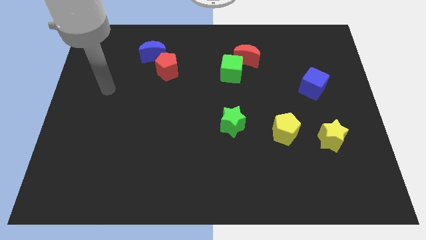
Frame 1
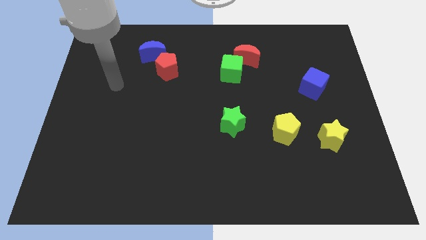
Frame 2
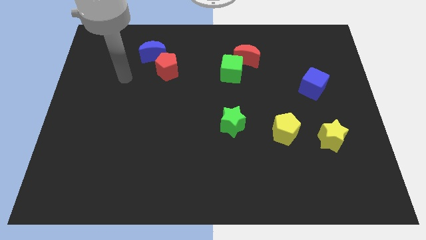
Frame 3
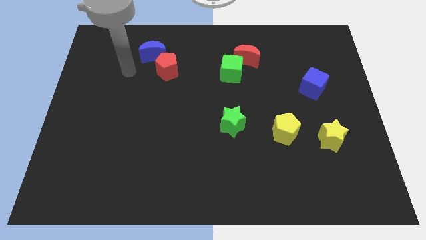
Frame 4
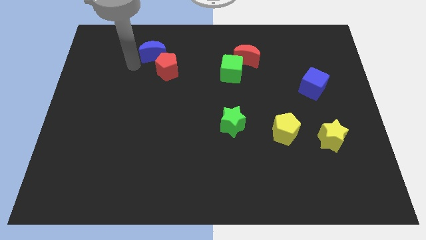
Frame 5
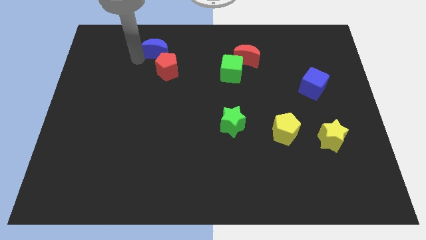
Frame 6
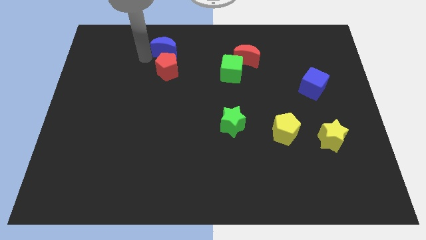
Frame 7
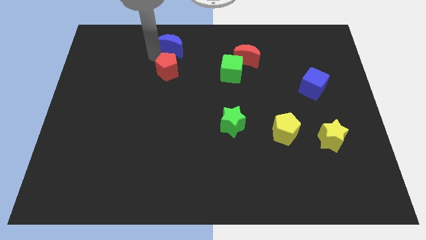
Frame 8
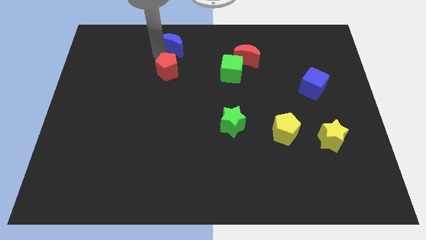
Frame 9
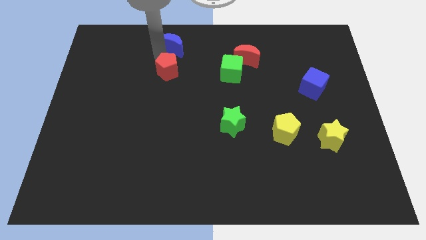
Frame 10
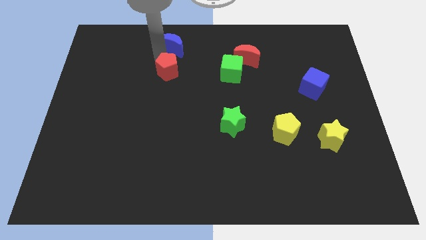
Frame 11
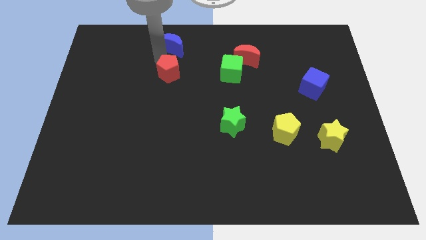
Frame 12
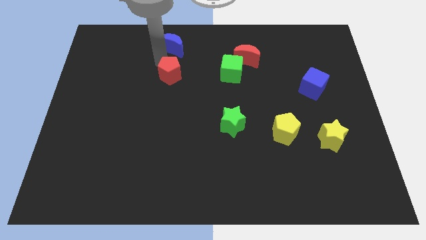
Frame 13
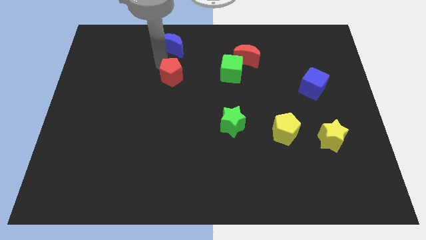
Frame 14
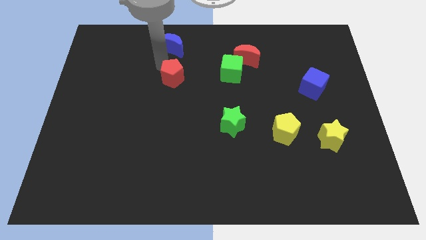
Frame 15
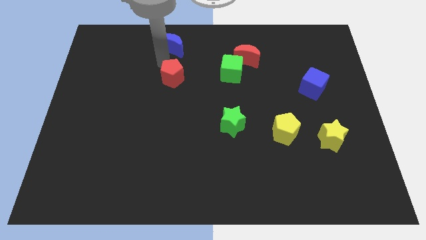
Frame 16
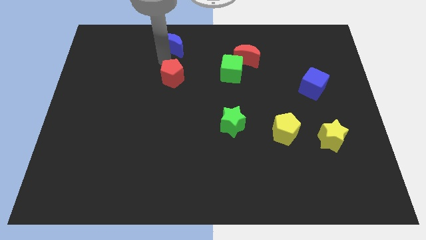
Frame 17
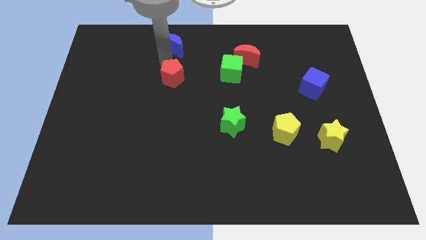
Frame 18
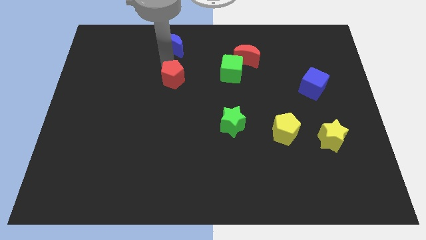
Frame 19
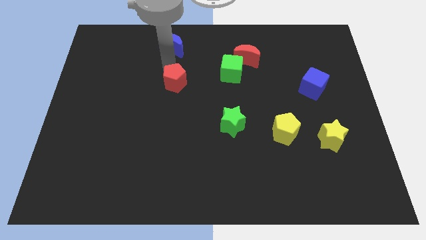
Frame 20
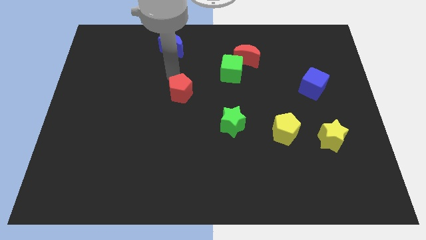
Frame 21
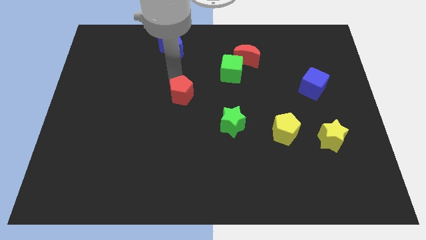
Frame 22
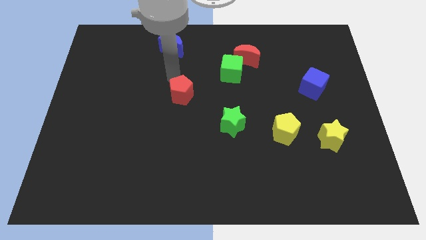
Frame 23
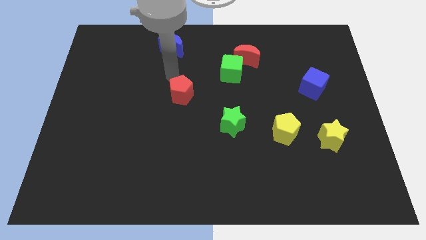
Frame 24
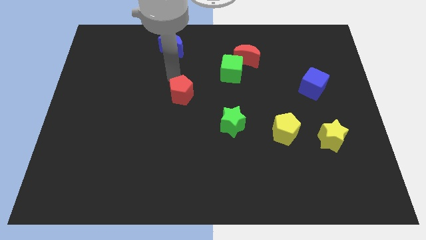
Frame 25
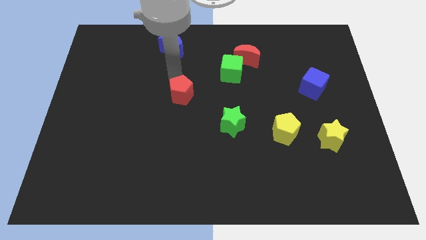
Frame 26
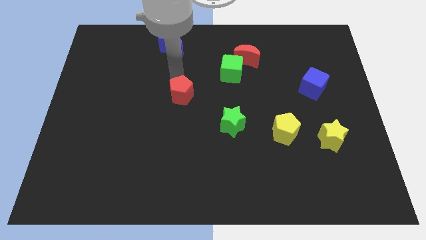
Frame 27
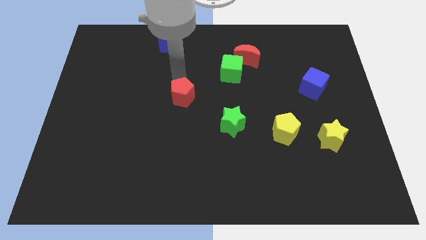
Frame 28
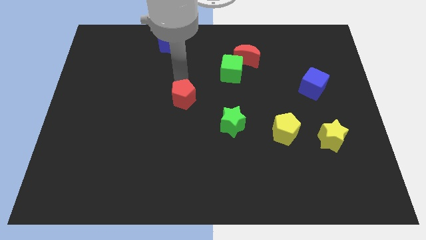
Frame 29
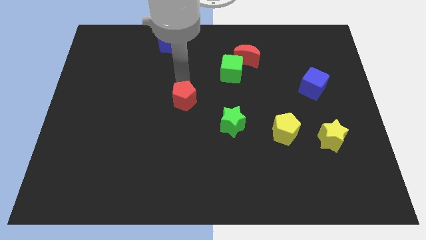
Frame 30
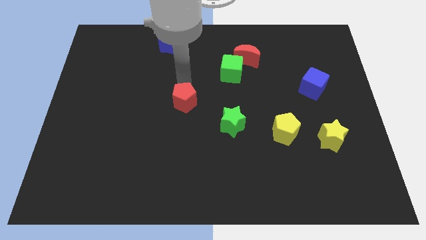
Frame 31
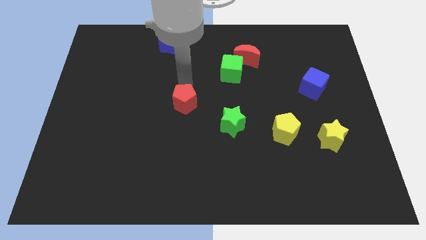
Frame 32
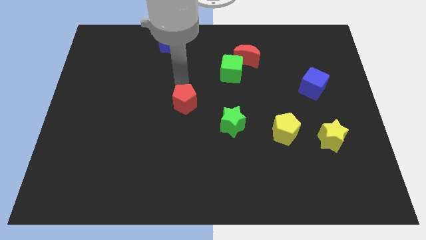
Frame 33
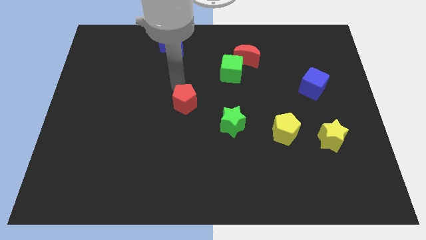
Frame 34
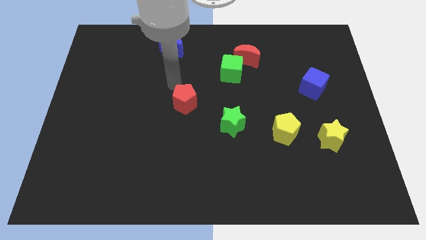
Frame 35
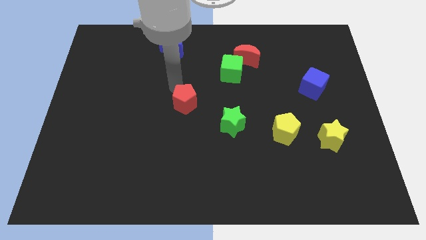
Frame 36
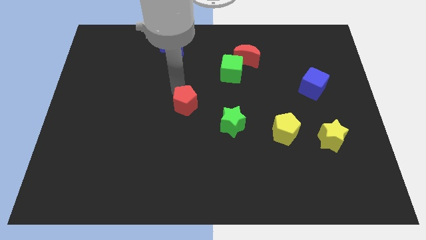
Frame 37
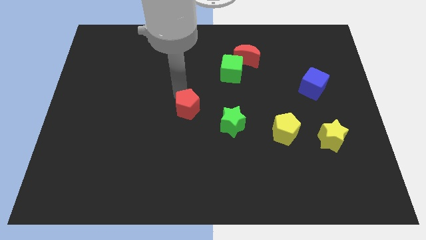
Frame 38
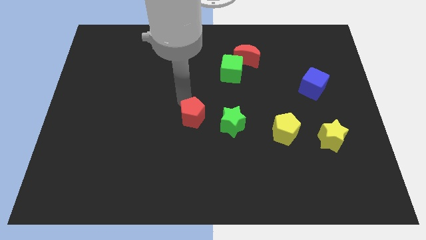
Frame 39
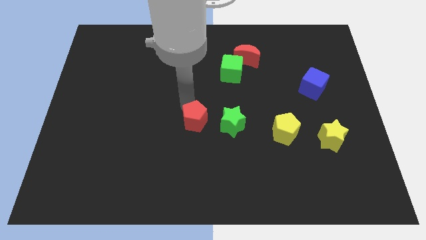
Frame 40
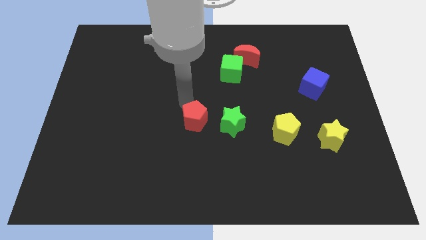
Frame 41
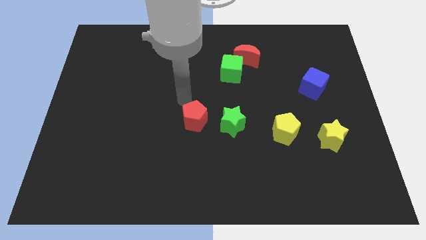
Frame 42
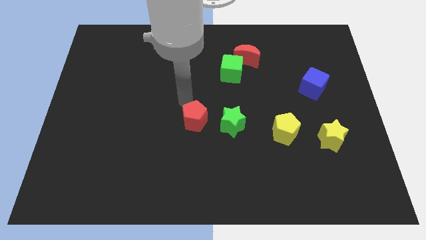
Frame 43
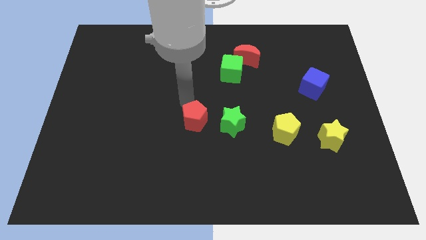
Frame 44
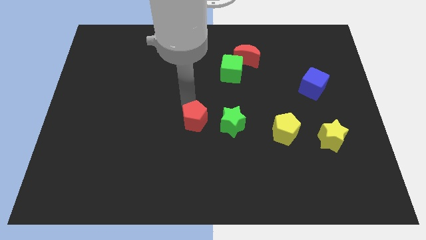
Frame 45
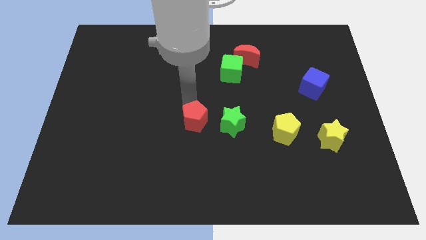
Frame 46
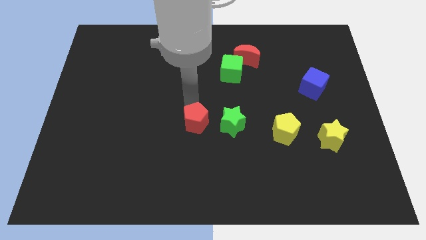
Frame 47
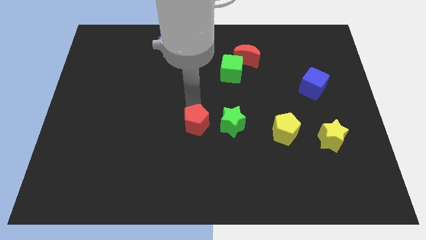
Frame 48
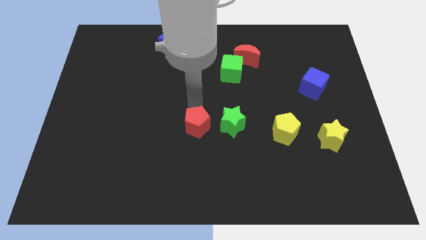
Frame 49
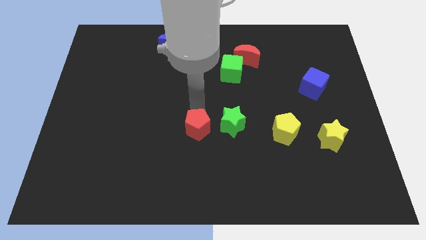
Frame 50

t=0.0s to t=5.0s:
slide the red pentagon diagonally down and to the left of the green star

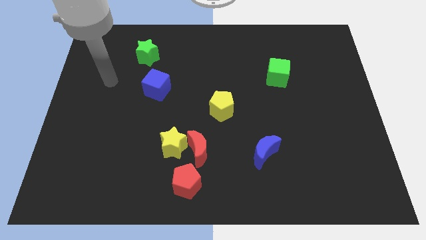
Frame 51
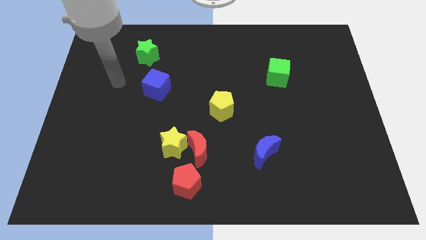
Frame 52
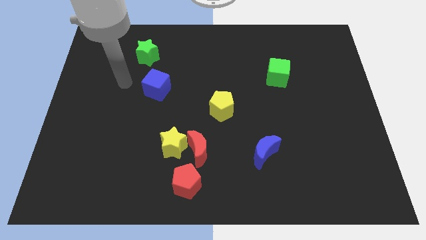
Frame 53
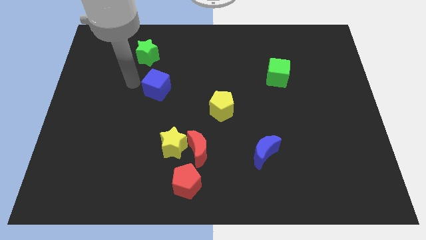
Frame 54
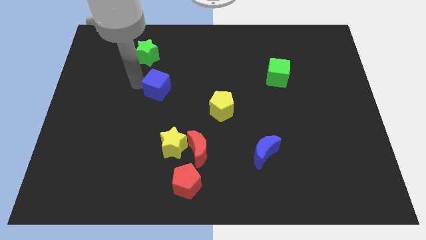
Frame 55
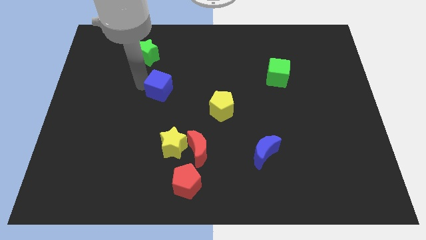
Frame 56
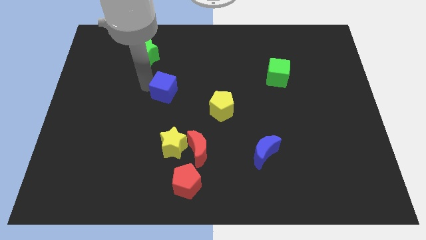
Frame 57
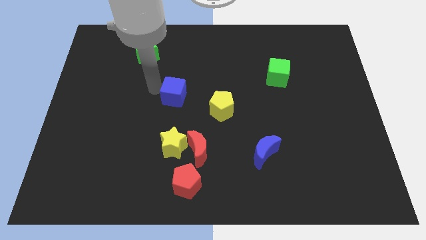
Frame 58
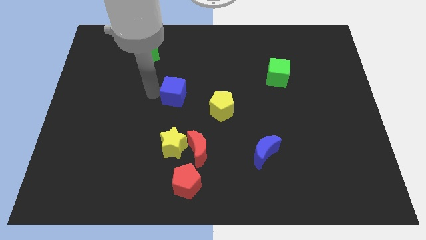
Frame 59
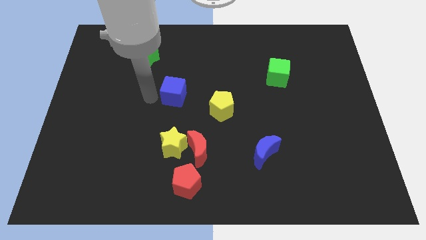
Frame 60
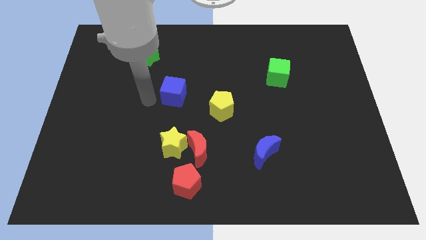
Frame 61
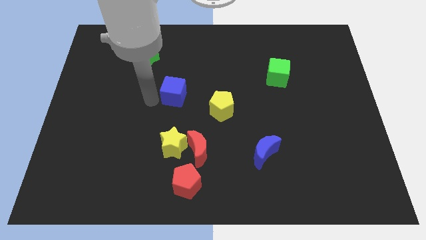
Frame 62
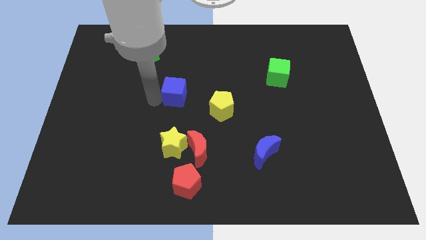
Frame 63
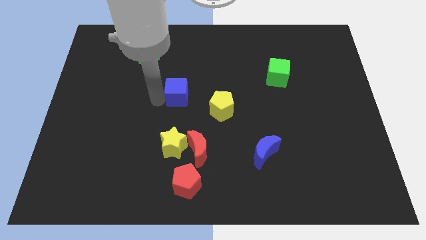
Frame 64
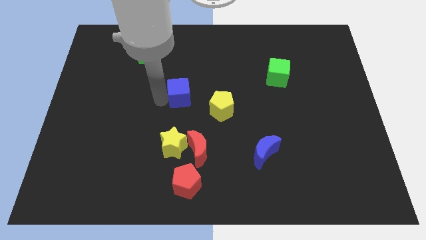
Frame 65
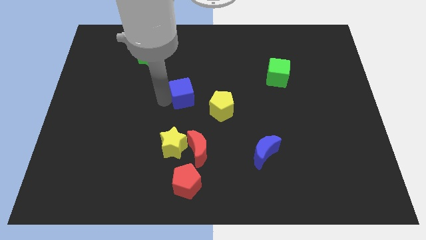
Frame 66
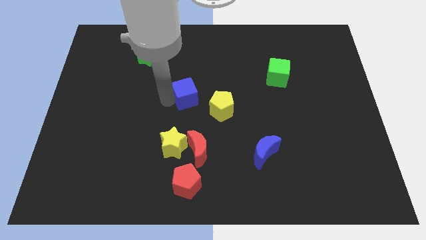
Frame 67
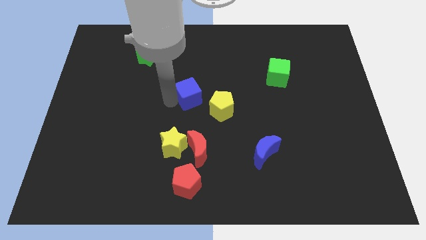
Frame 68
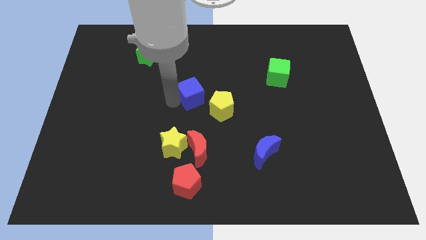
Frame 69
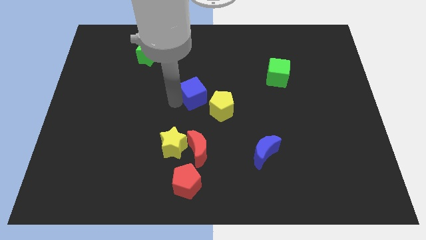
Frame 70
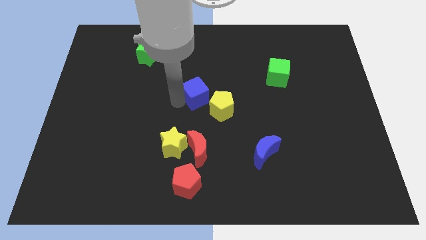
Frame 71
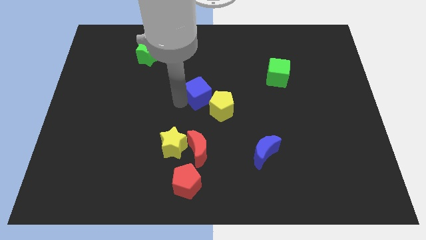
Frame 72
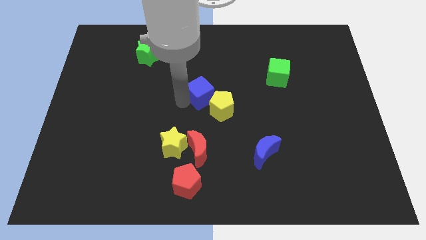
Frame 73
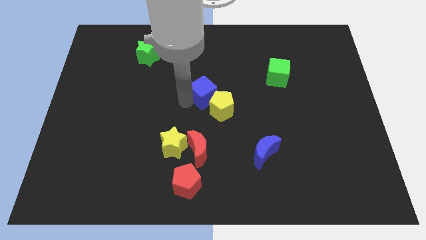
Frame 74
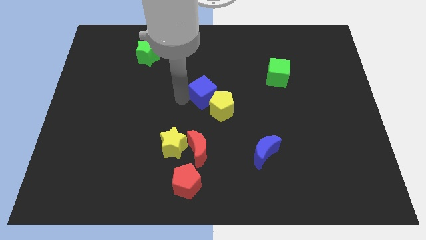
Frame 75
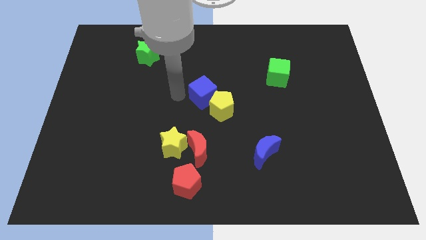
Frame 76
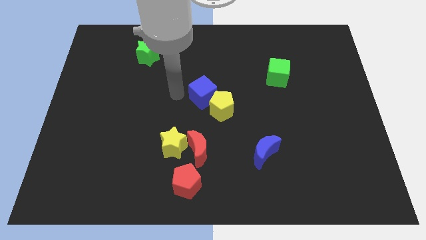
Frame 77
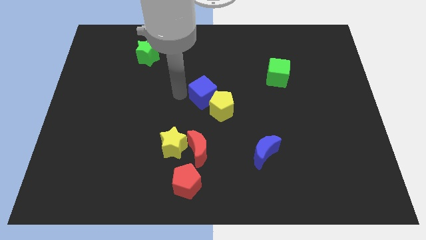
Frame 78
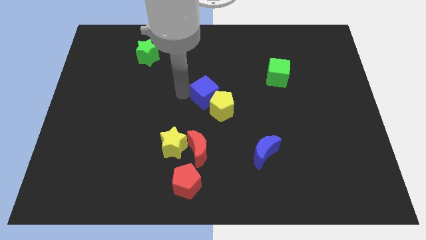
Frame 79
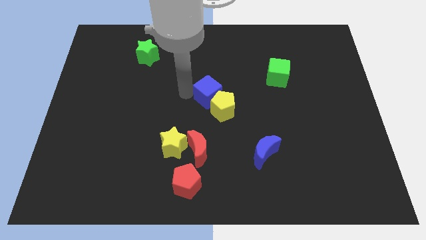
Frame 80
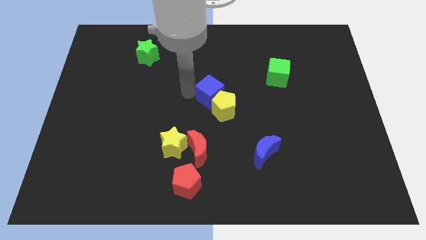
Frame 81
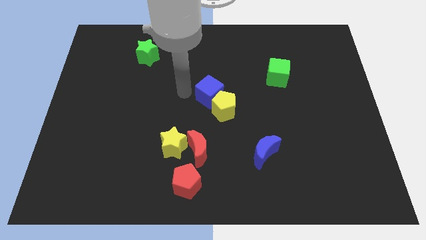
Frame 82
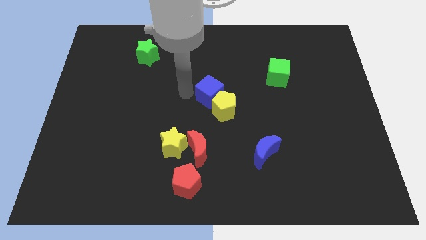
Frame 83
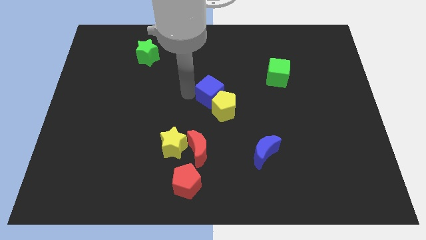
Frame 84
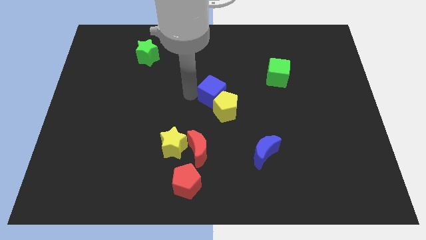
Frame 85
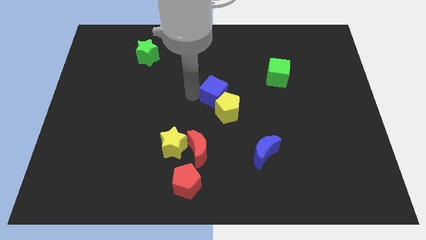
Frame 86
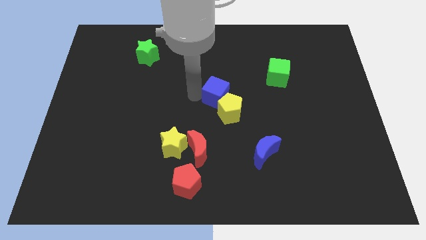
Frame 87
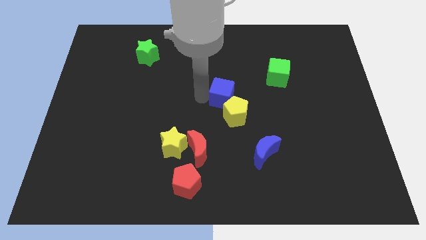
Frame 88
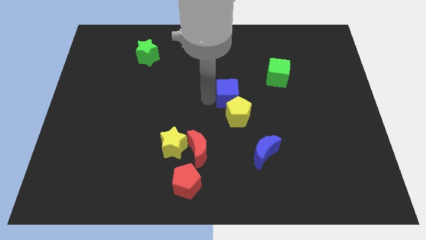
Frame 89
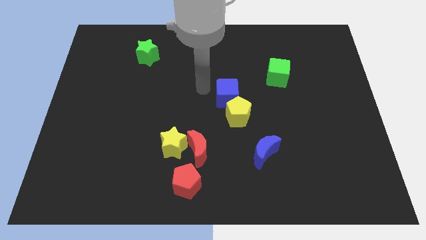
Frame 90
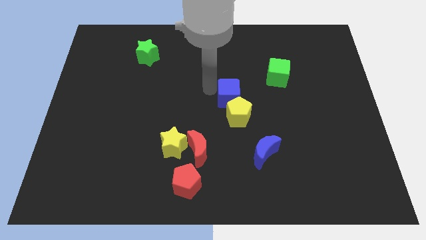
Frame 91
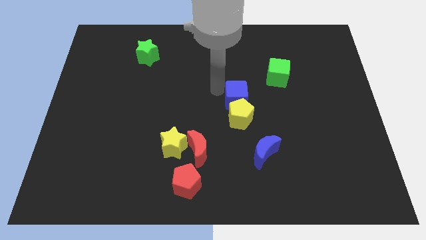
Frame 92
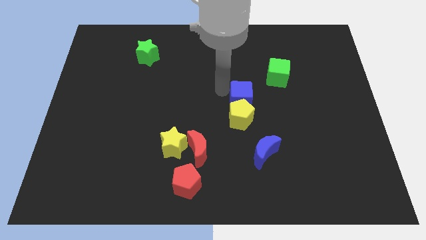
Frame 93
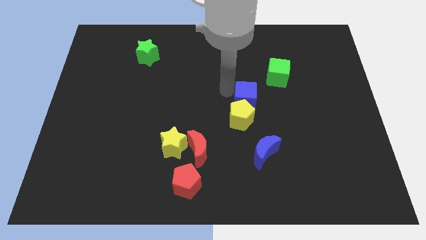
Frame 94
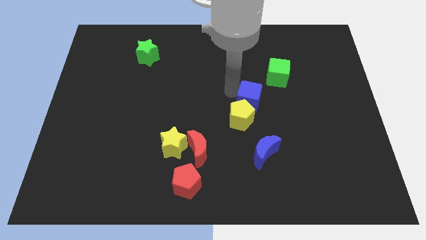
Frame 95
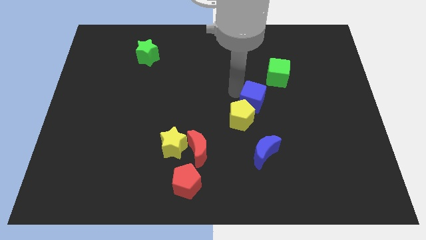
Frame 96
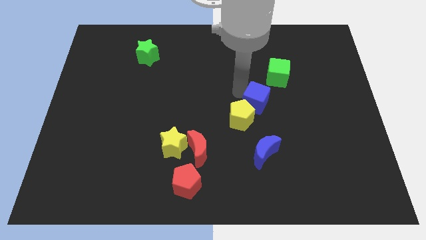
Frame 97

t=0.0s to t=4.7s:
move the blue cube right of the yellow pentagon
